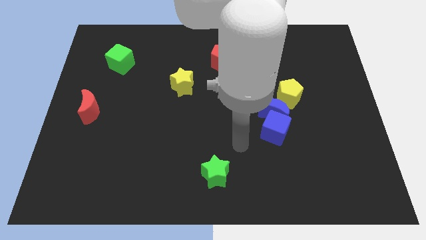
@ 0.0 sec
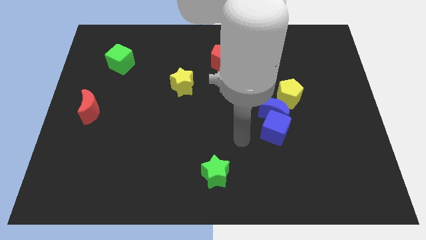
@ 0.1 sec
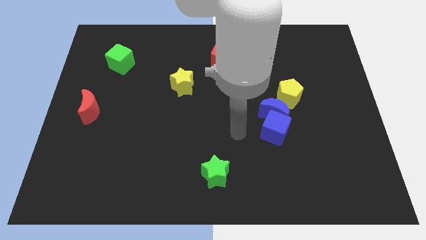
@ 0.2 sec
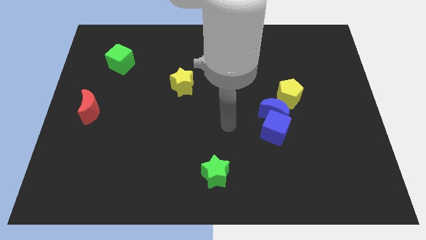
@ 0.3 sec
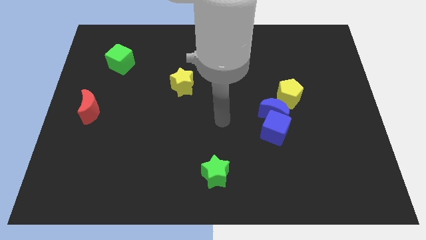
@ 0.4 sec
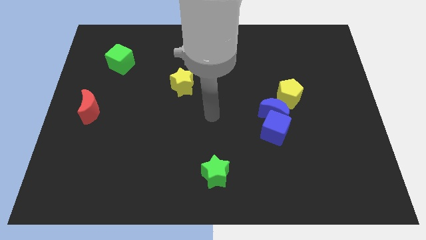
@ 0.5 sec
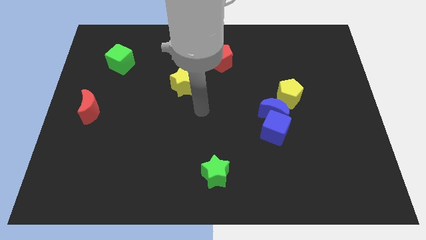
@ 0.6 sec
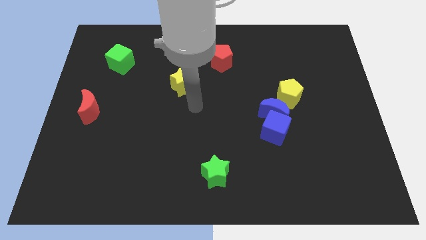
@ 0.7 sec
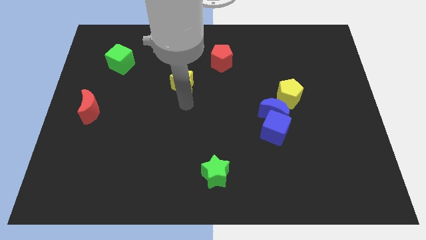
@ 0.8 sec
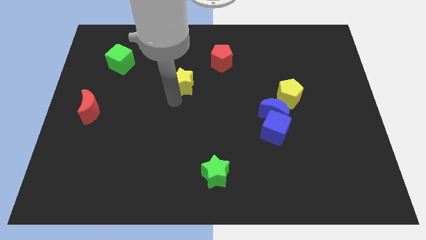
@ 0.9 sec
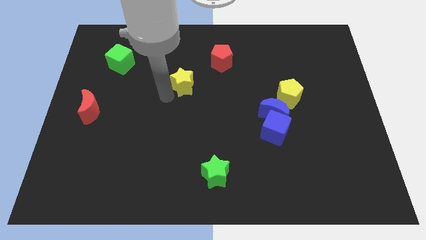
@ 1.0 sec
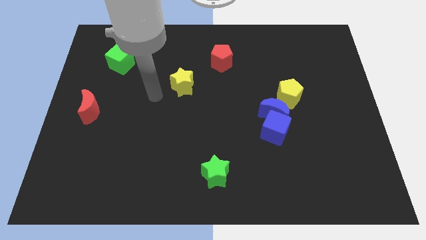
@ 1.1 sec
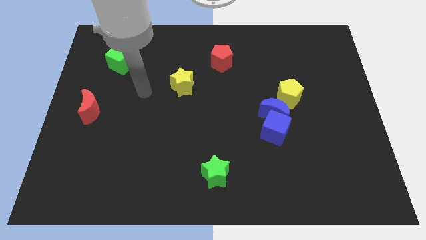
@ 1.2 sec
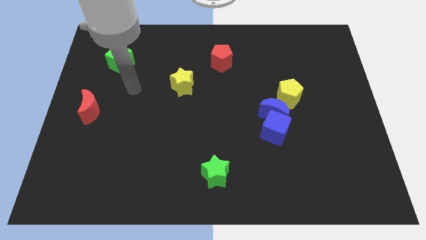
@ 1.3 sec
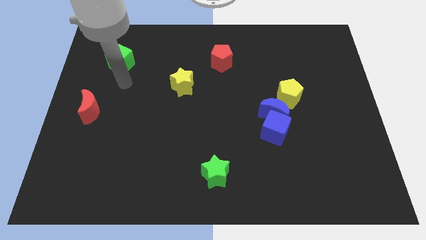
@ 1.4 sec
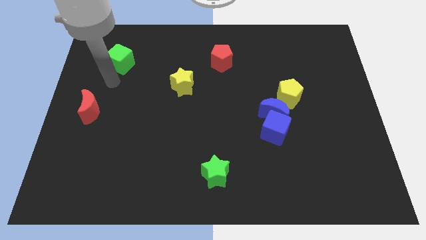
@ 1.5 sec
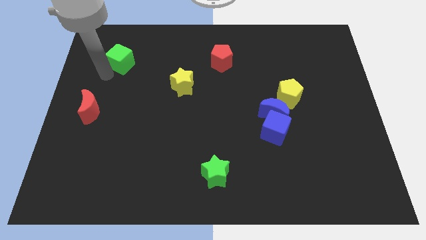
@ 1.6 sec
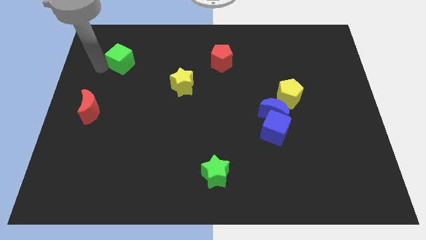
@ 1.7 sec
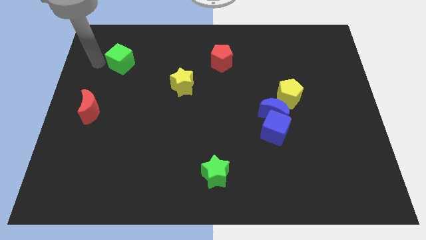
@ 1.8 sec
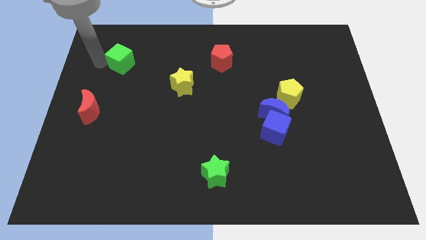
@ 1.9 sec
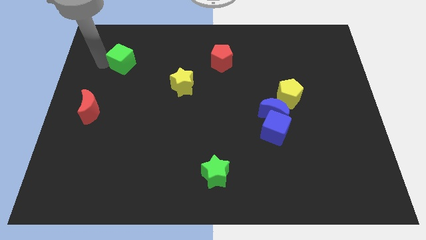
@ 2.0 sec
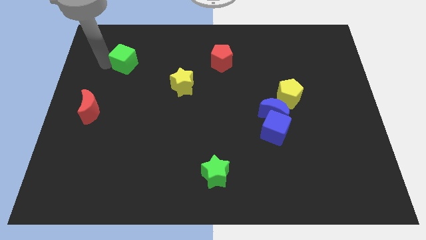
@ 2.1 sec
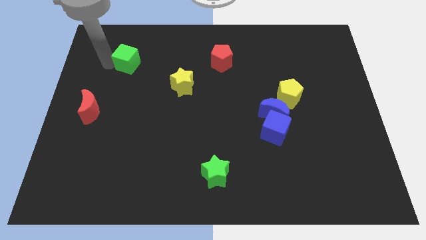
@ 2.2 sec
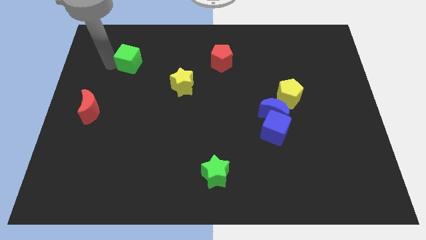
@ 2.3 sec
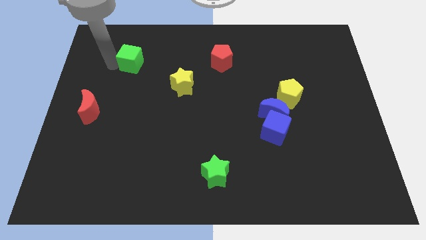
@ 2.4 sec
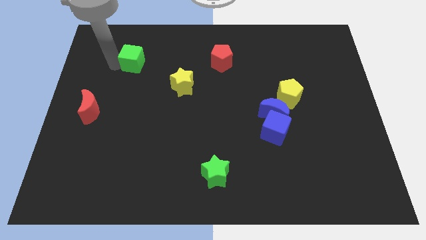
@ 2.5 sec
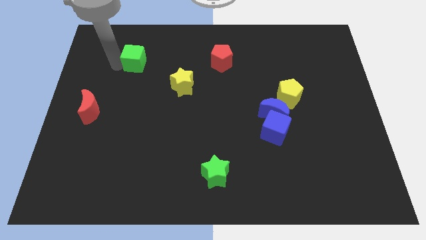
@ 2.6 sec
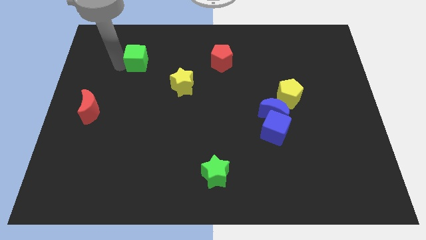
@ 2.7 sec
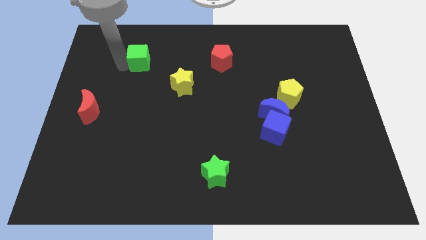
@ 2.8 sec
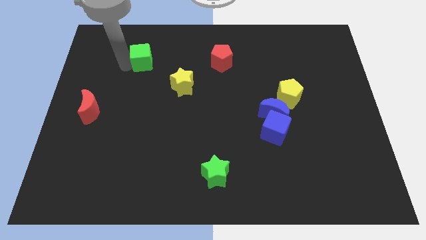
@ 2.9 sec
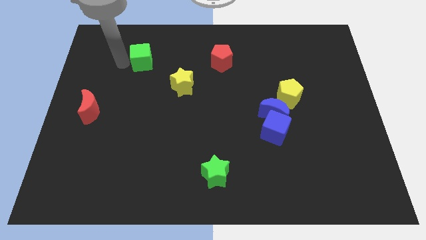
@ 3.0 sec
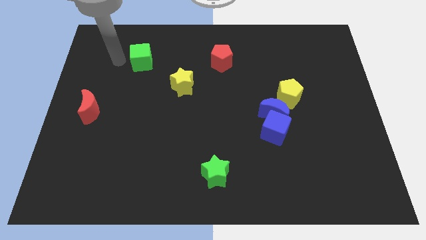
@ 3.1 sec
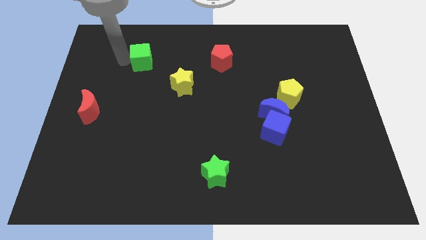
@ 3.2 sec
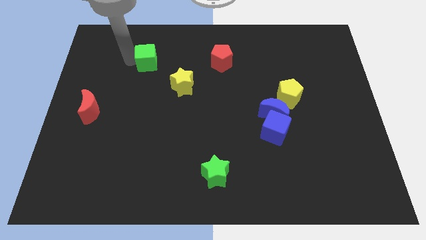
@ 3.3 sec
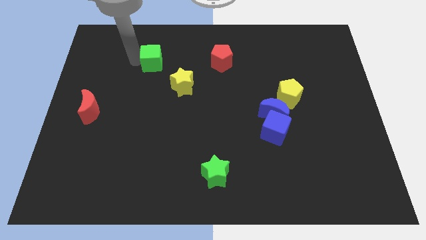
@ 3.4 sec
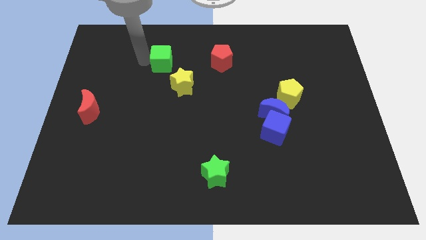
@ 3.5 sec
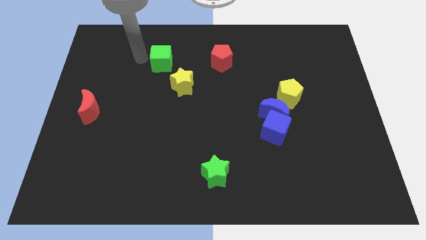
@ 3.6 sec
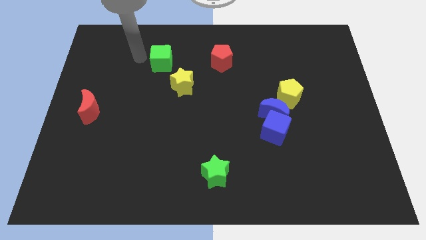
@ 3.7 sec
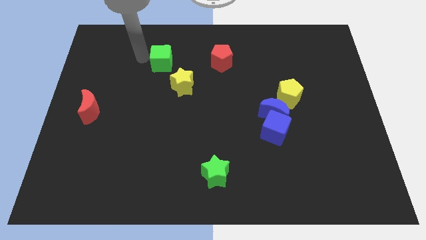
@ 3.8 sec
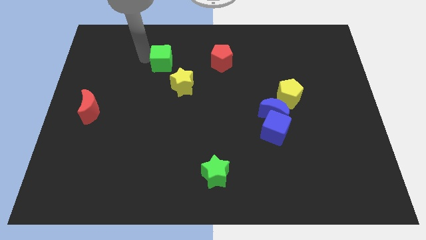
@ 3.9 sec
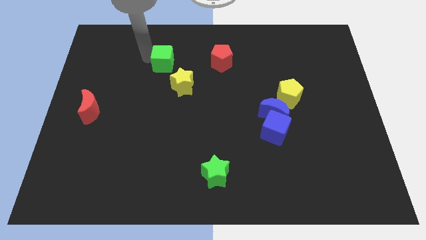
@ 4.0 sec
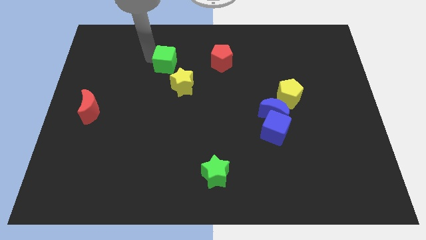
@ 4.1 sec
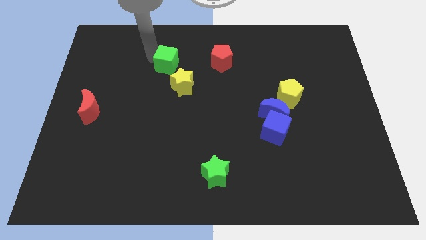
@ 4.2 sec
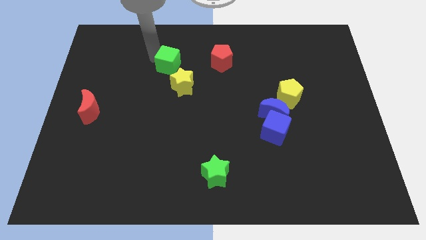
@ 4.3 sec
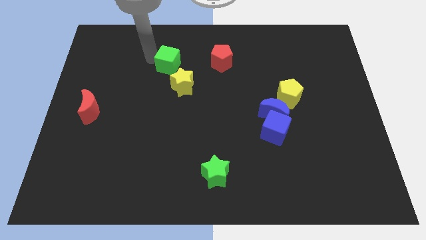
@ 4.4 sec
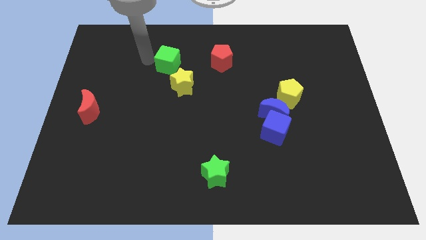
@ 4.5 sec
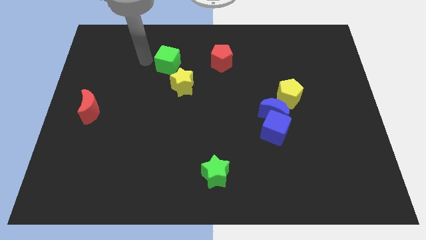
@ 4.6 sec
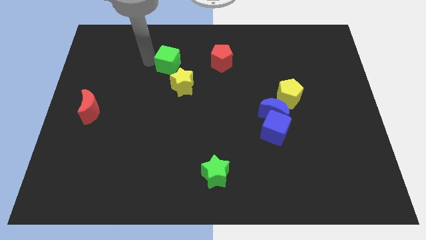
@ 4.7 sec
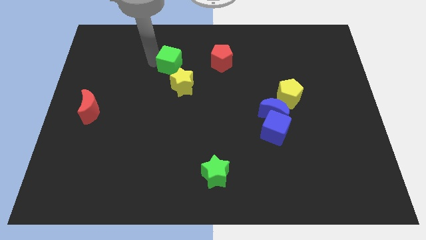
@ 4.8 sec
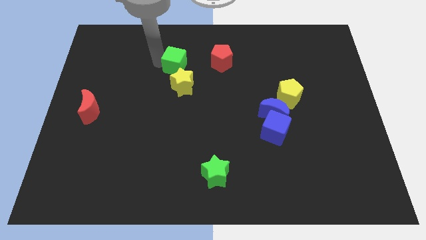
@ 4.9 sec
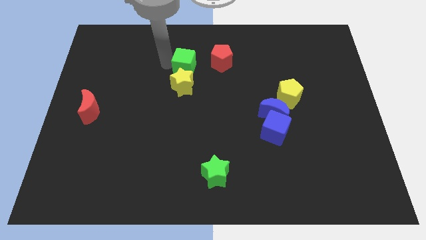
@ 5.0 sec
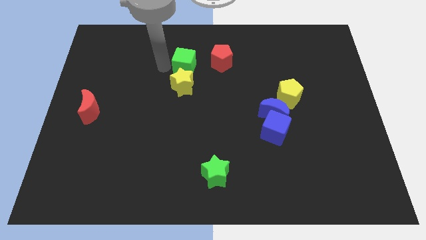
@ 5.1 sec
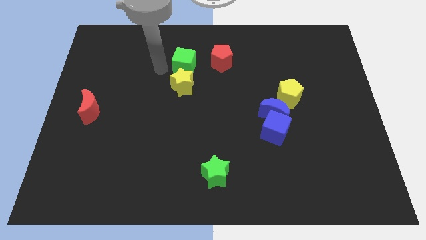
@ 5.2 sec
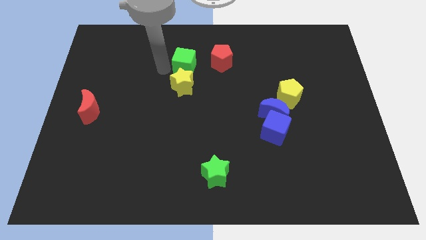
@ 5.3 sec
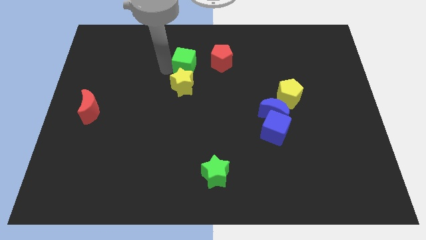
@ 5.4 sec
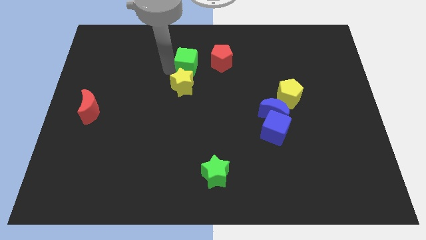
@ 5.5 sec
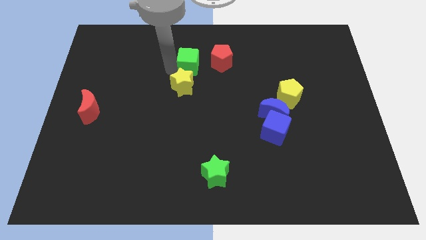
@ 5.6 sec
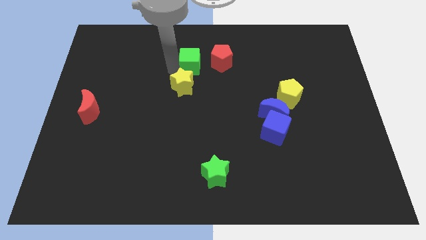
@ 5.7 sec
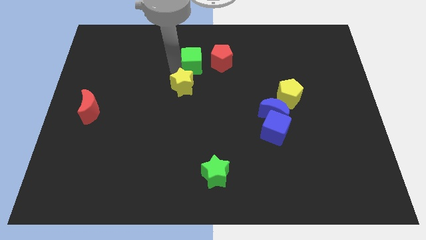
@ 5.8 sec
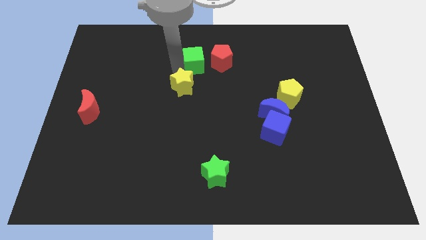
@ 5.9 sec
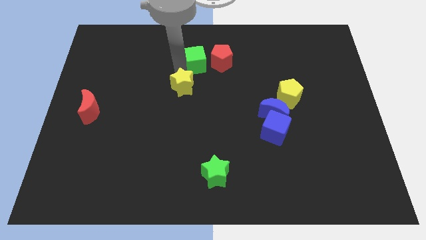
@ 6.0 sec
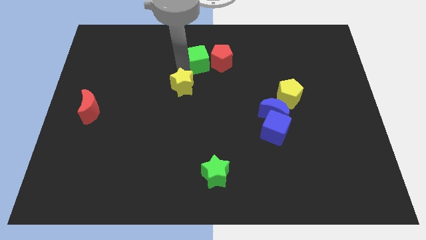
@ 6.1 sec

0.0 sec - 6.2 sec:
push the green cube towards the red pentagon

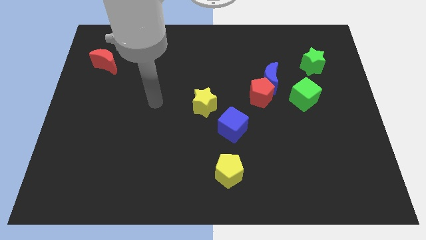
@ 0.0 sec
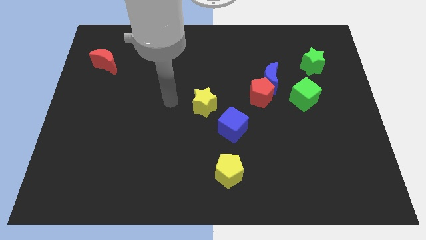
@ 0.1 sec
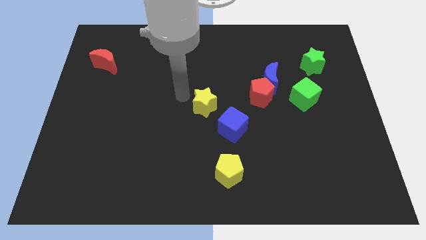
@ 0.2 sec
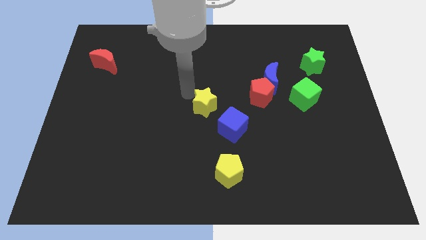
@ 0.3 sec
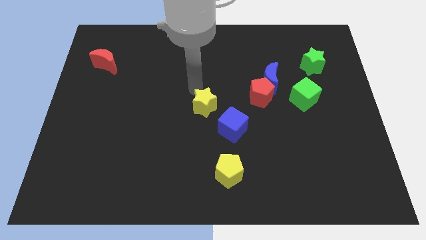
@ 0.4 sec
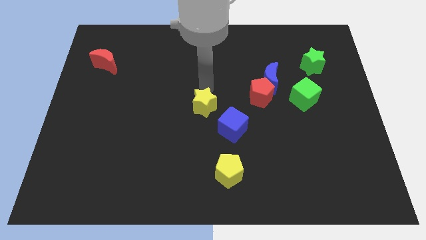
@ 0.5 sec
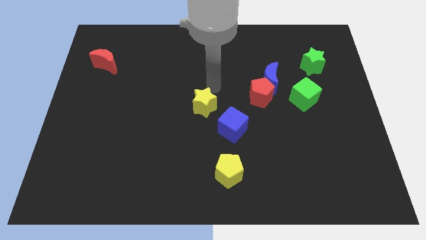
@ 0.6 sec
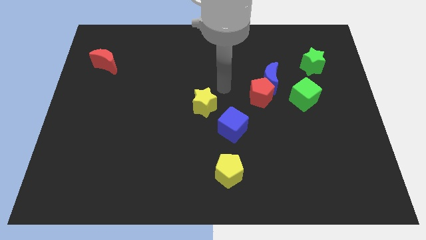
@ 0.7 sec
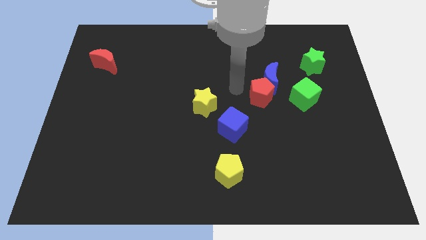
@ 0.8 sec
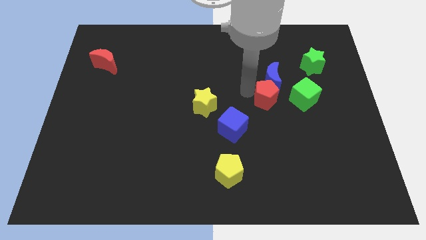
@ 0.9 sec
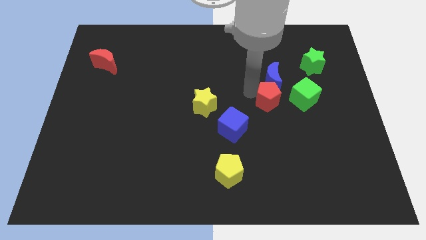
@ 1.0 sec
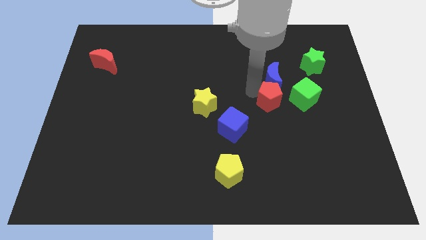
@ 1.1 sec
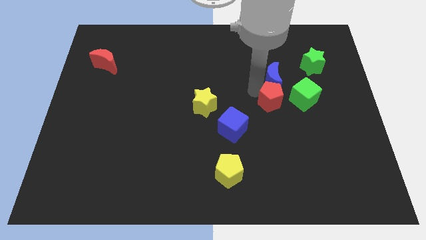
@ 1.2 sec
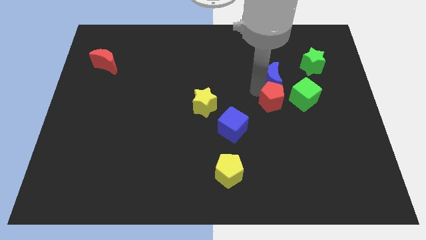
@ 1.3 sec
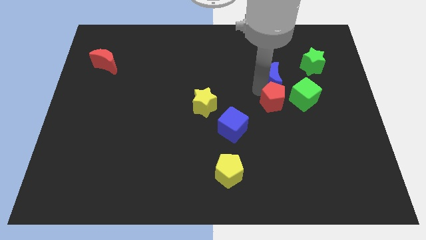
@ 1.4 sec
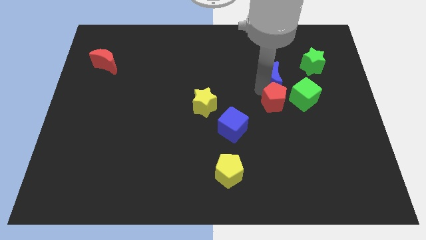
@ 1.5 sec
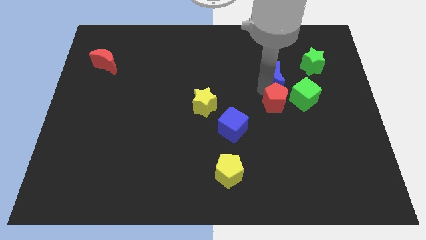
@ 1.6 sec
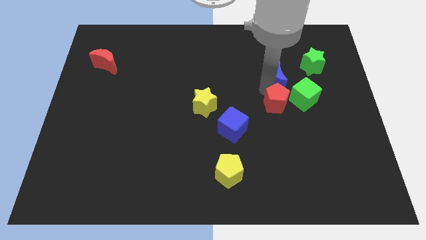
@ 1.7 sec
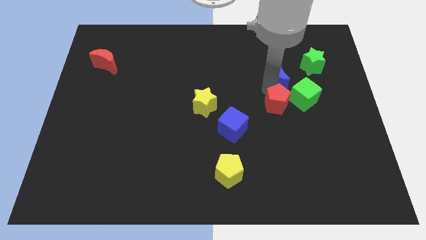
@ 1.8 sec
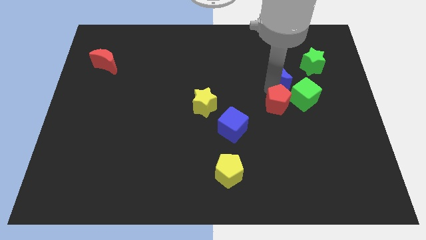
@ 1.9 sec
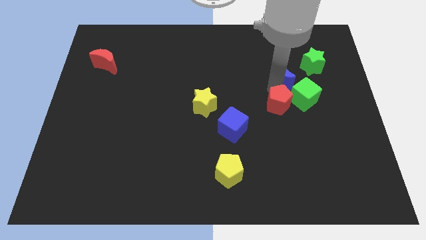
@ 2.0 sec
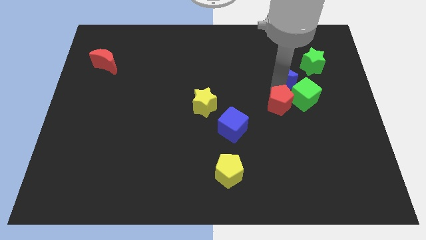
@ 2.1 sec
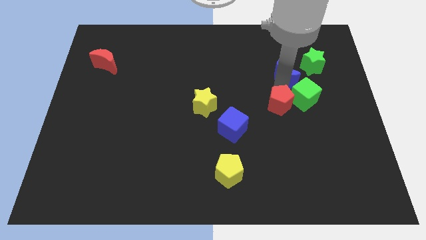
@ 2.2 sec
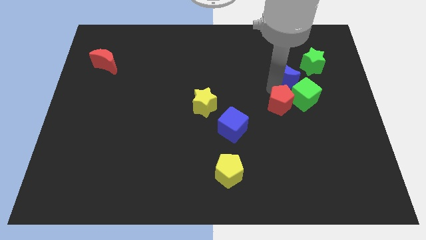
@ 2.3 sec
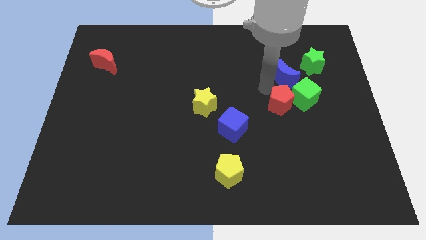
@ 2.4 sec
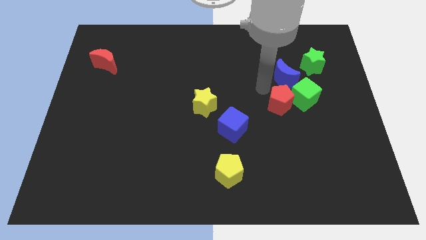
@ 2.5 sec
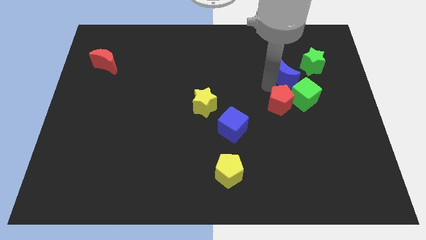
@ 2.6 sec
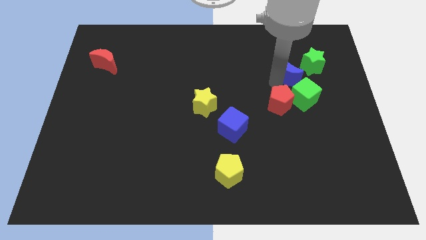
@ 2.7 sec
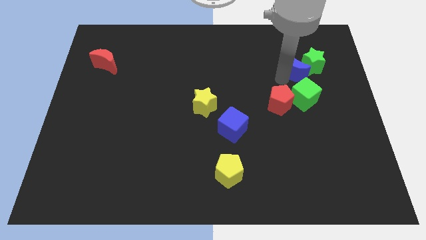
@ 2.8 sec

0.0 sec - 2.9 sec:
move the blue moon towards the green star
